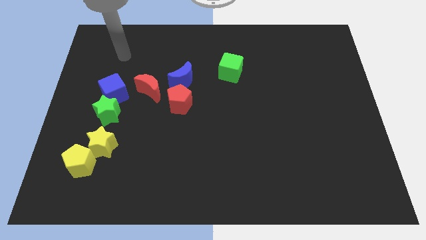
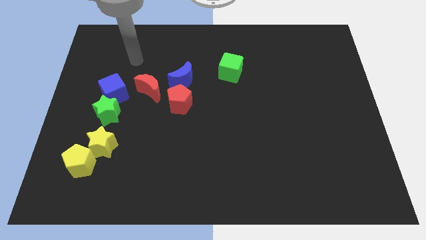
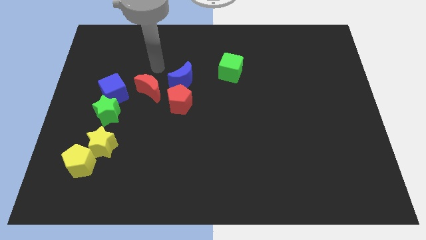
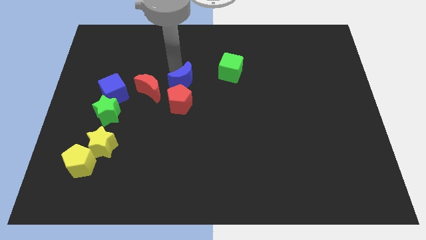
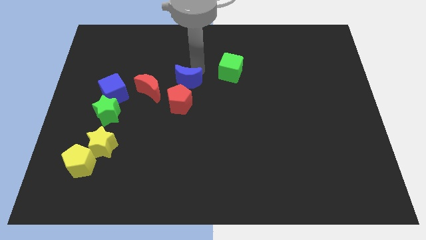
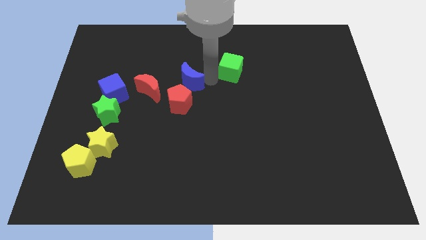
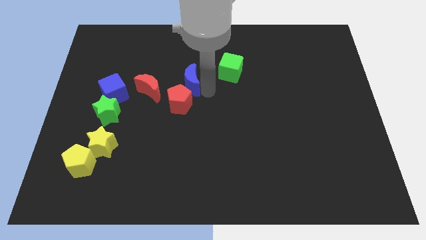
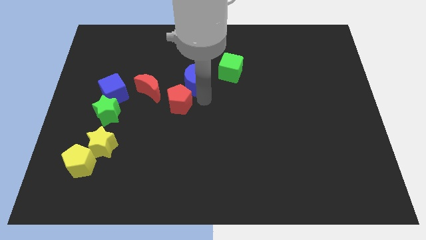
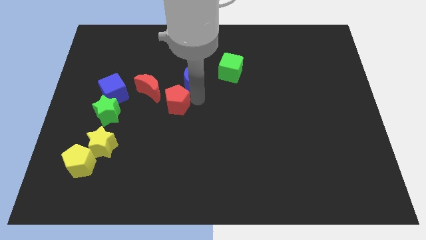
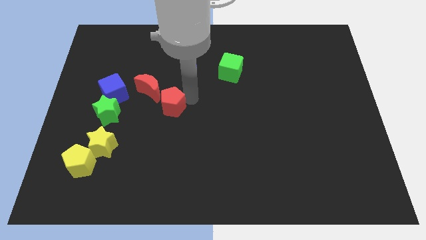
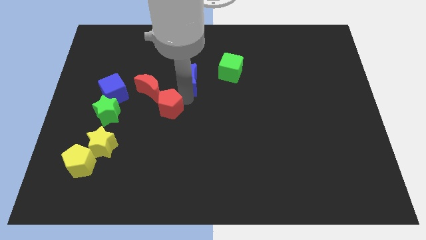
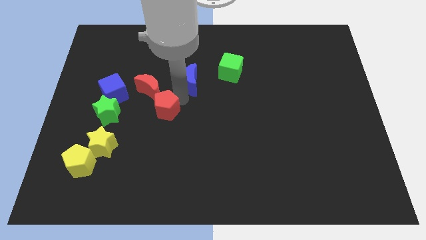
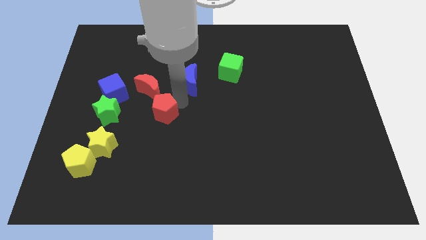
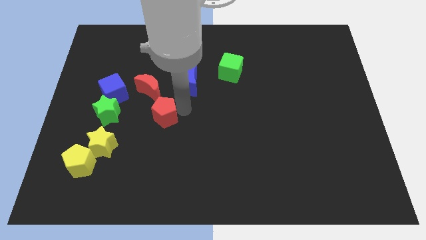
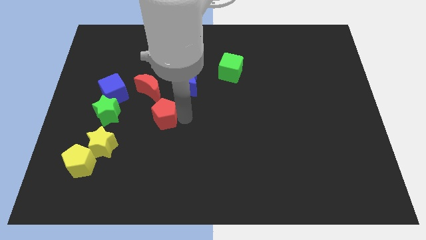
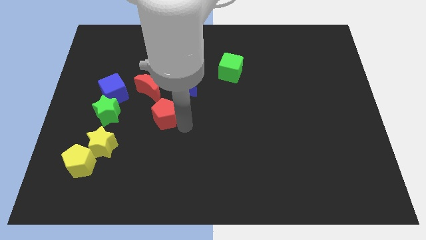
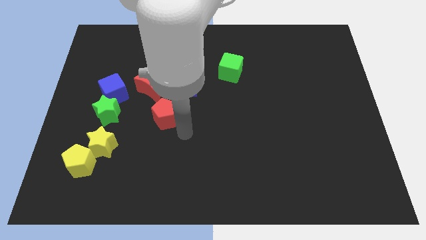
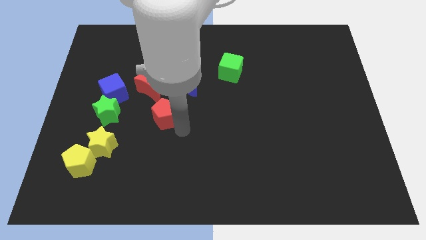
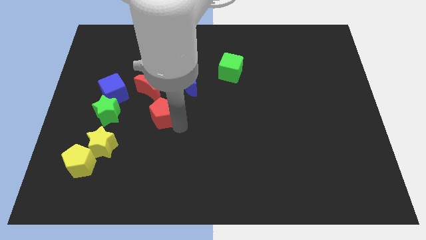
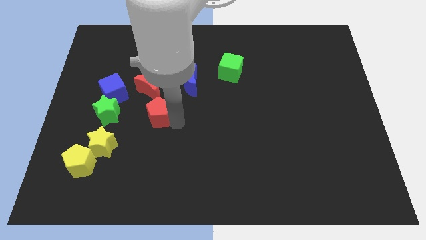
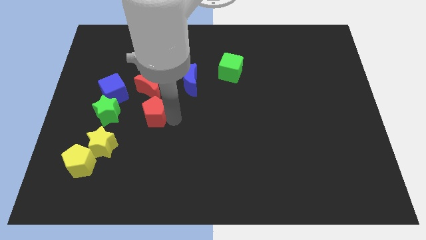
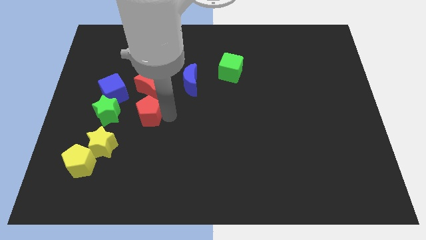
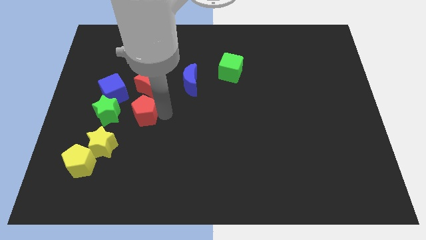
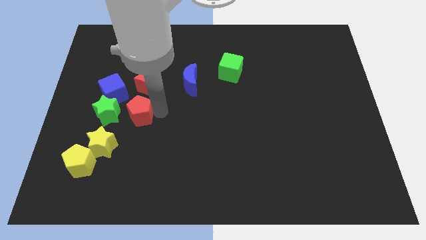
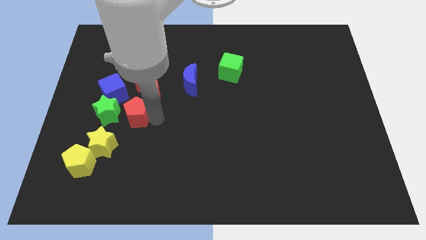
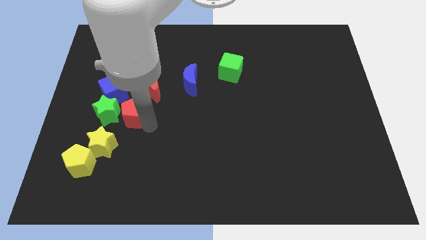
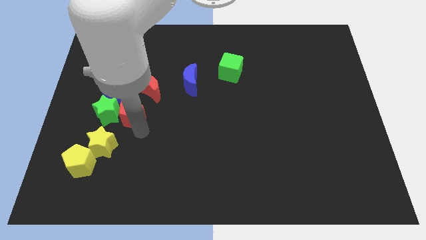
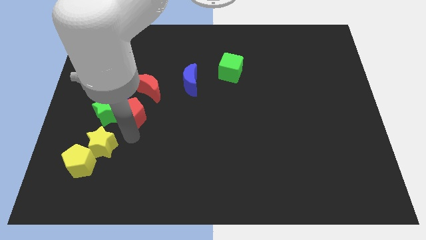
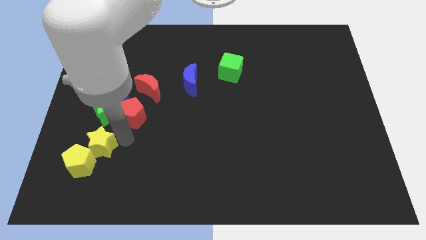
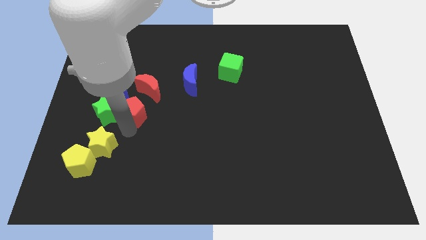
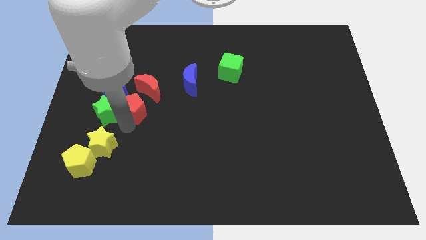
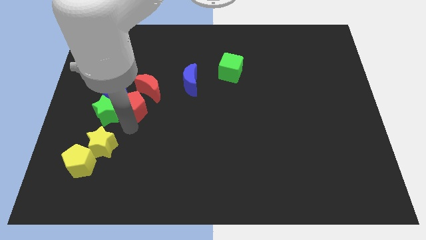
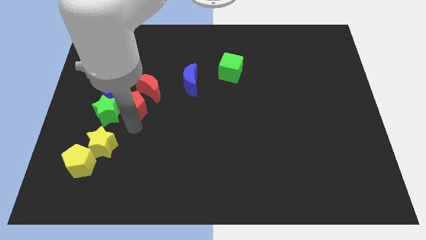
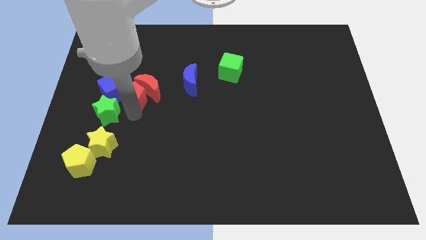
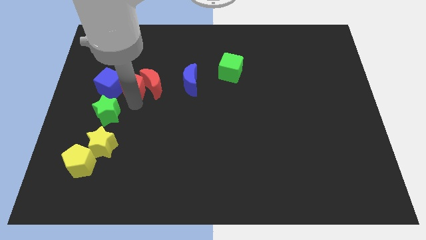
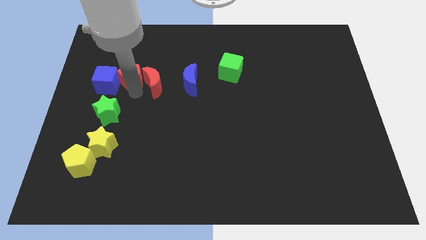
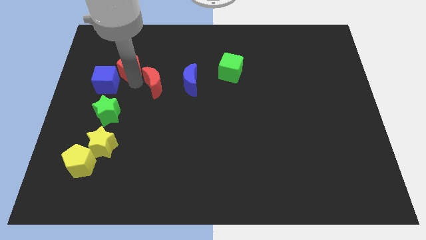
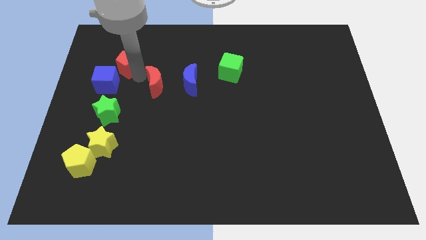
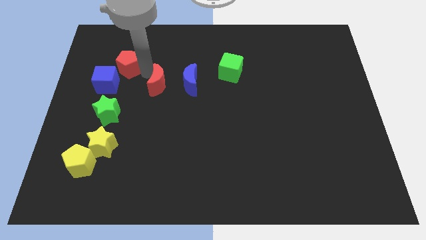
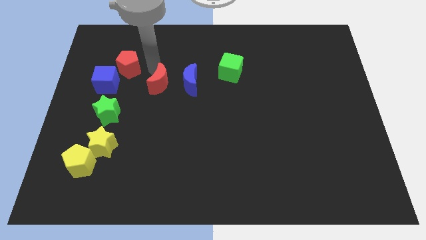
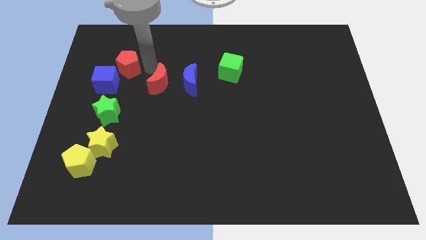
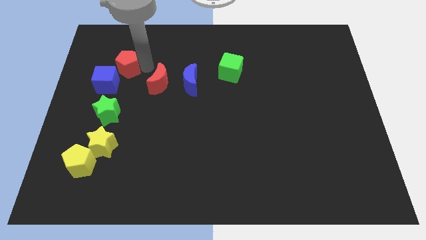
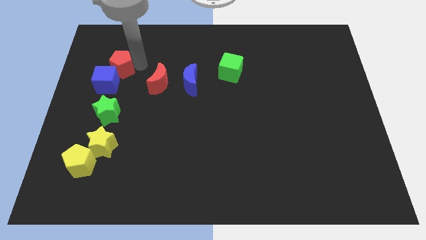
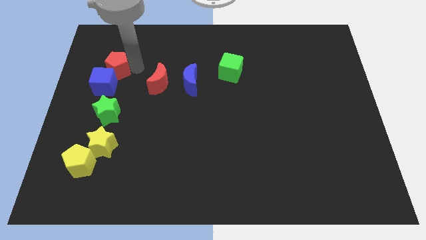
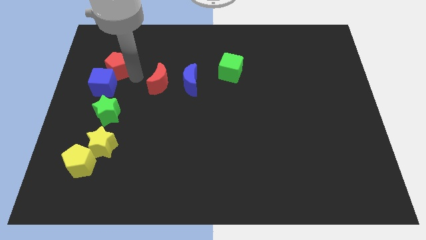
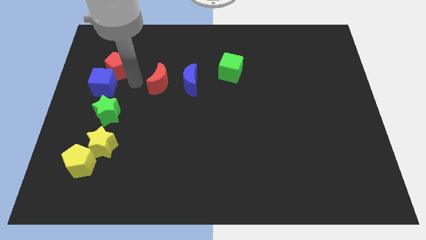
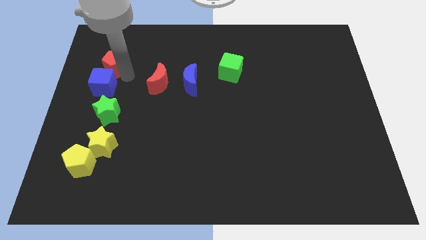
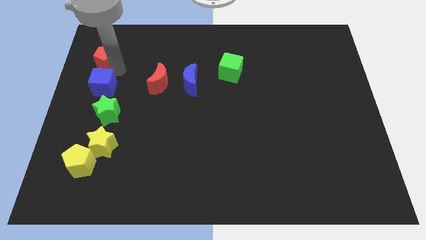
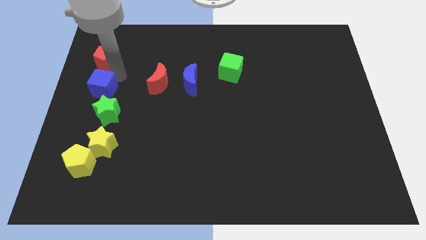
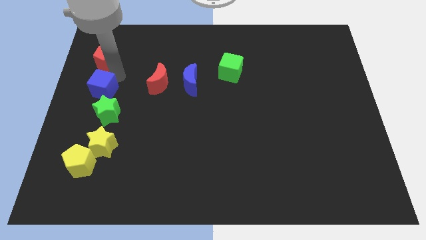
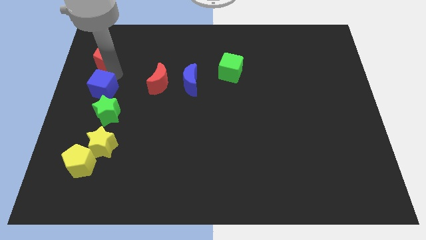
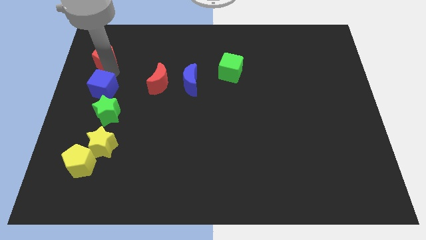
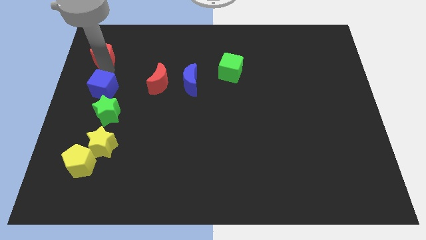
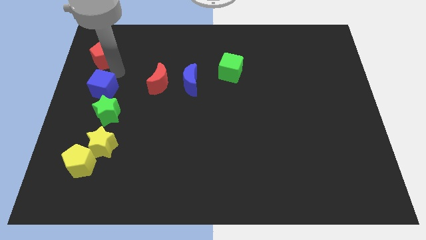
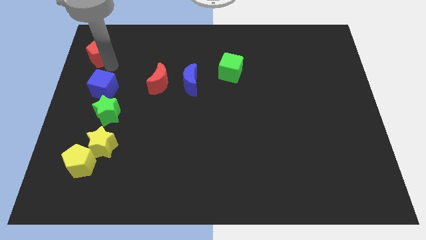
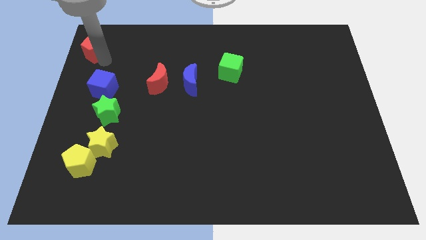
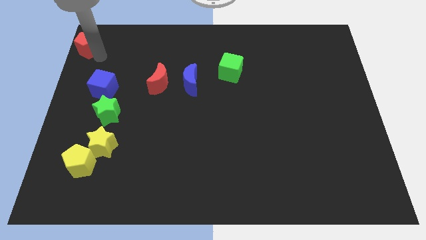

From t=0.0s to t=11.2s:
slide the red pentagon to the top left of the board

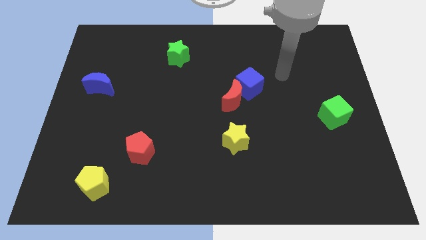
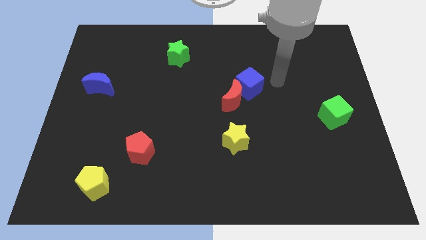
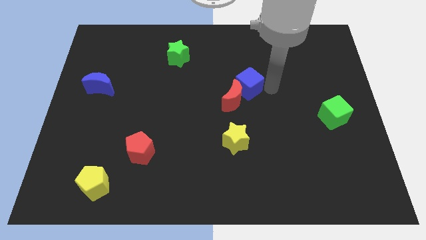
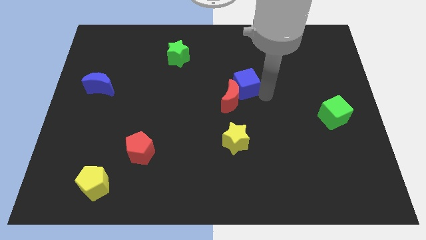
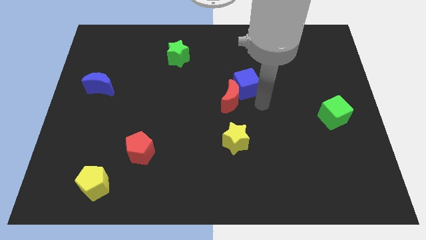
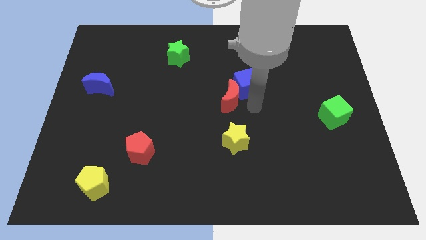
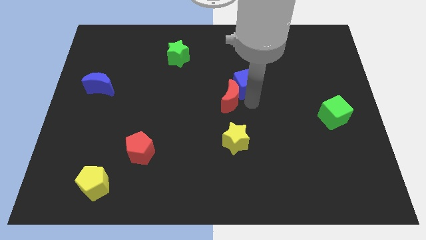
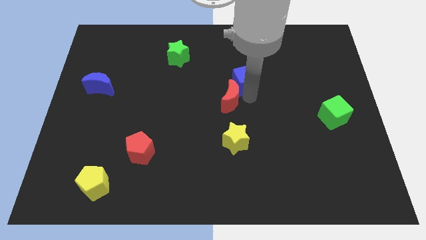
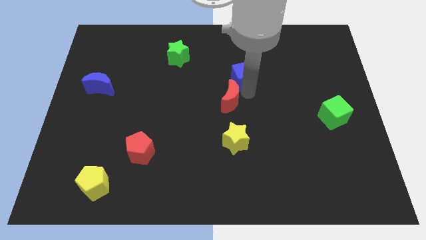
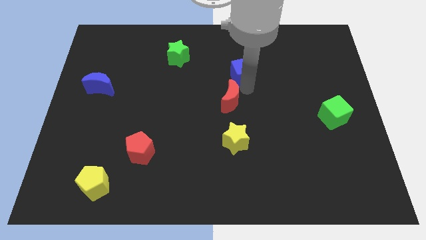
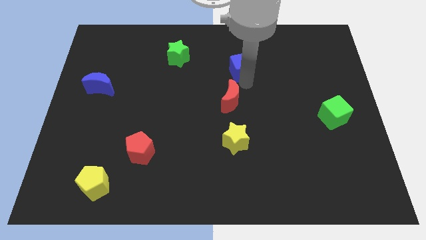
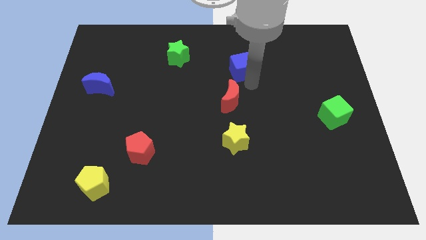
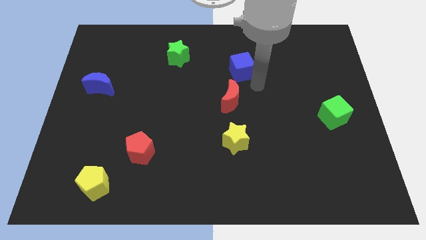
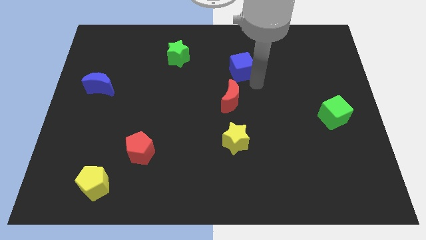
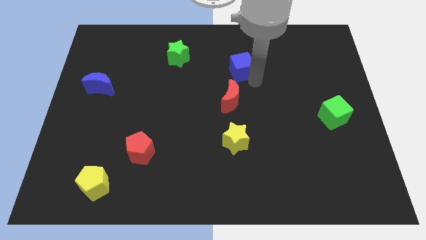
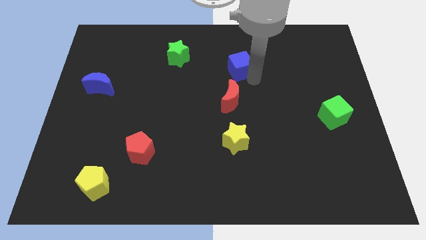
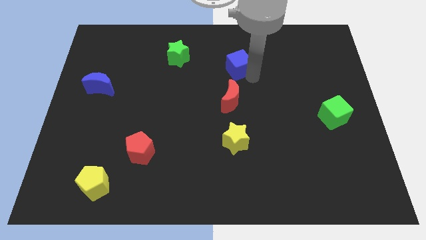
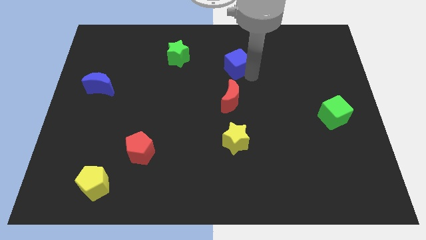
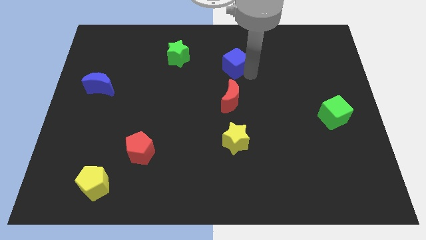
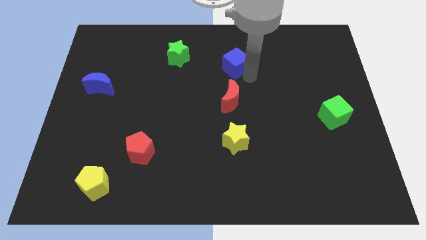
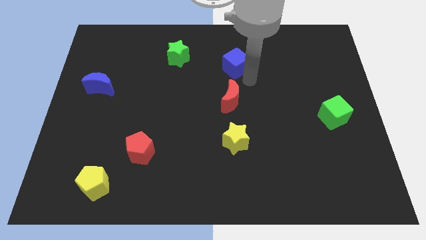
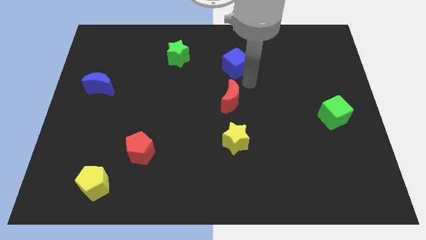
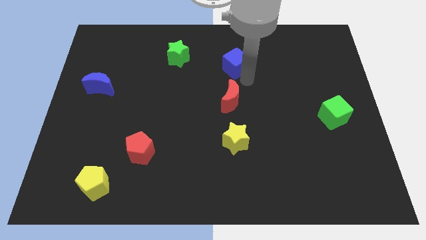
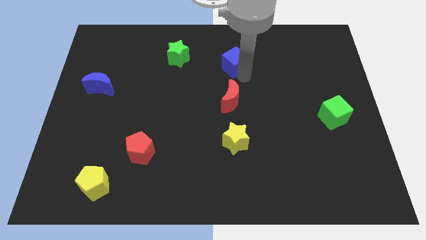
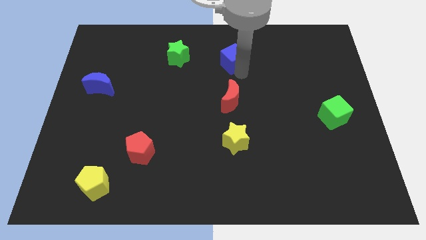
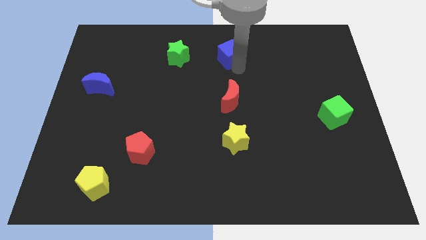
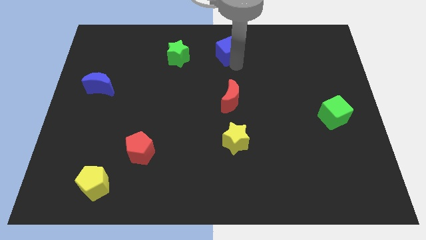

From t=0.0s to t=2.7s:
move the blue cube to the towards your base
